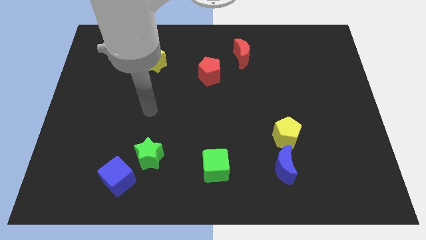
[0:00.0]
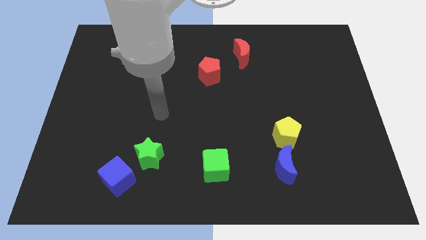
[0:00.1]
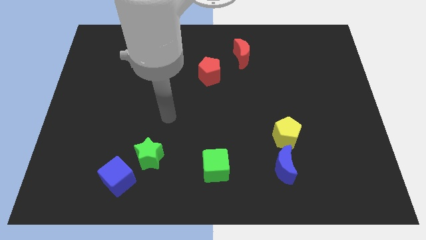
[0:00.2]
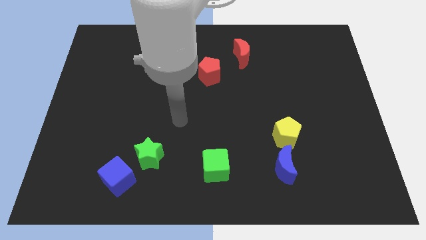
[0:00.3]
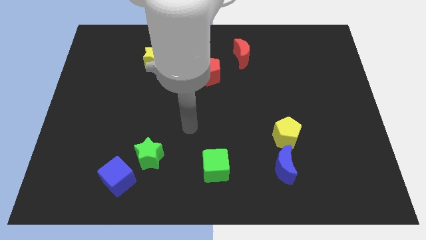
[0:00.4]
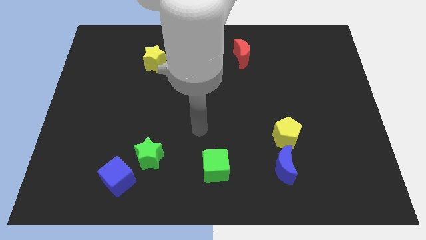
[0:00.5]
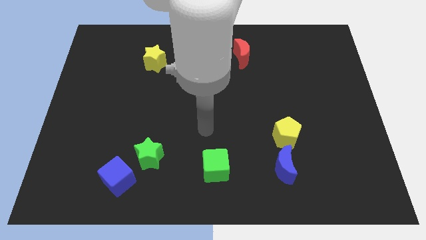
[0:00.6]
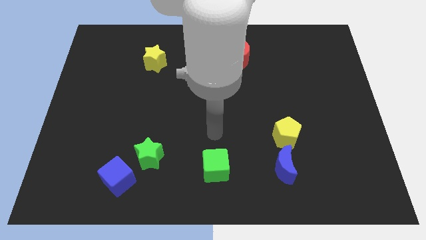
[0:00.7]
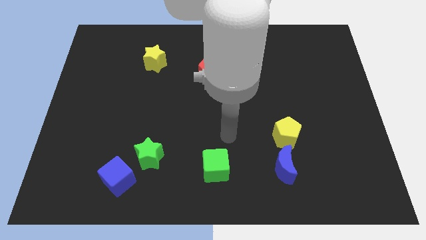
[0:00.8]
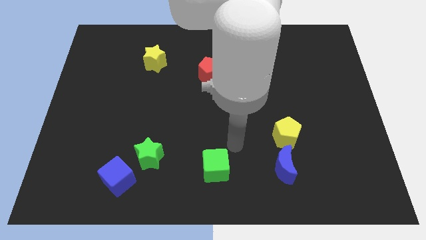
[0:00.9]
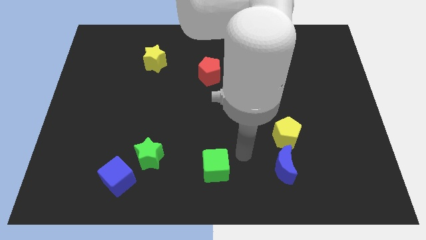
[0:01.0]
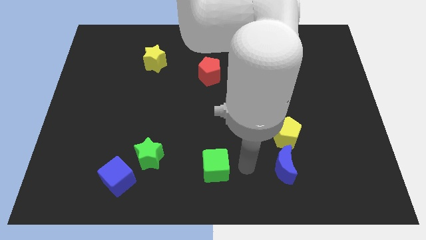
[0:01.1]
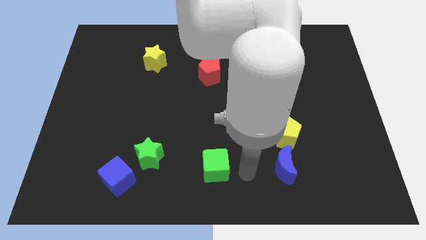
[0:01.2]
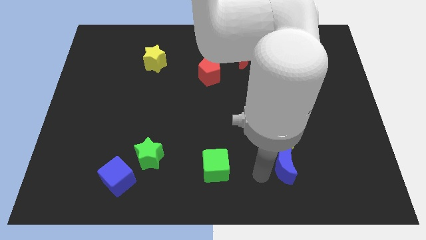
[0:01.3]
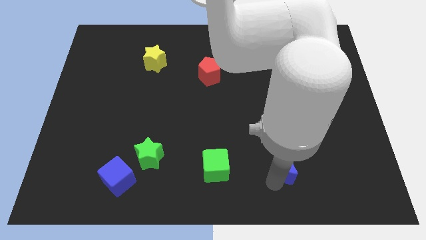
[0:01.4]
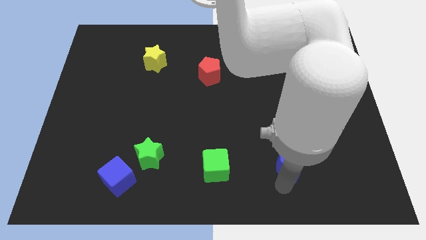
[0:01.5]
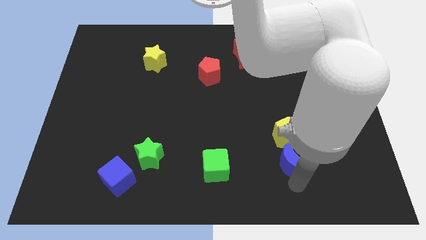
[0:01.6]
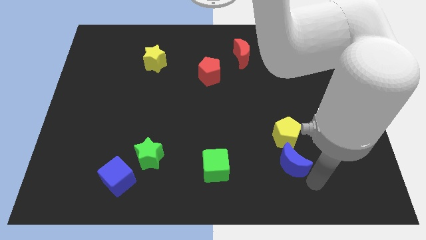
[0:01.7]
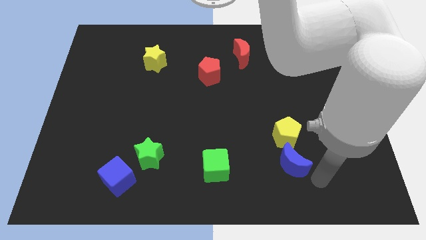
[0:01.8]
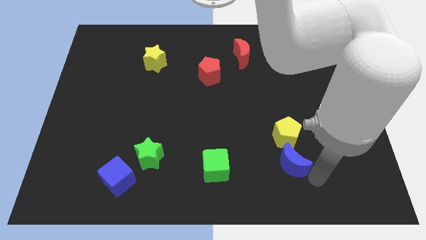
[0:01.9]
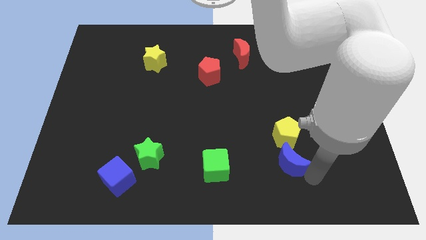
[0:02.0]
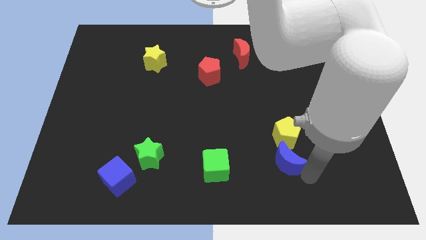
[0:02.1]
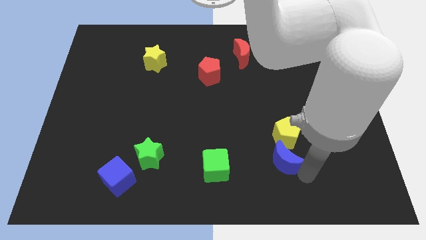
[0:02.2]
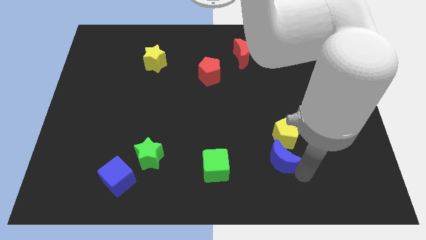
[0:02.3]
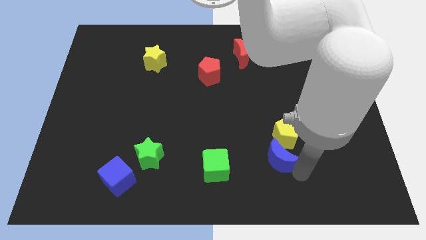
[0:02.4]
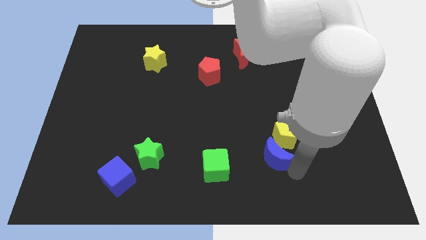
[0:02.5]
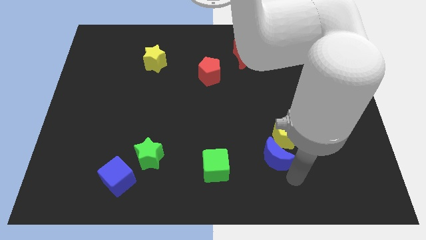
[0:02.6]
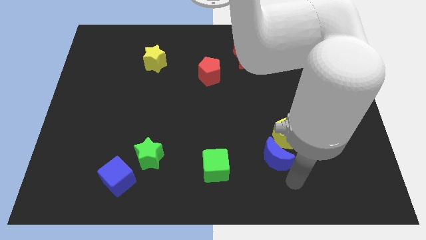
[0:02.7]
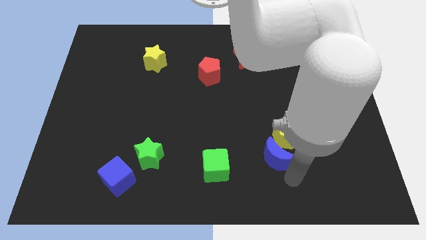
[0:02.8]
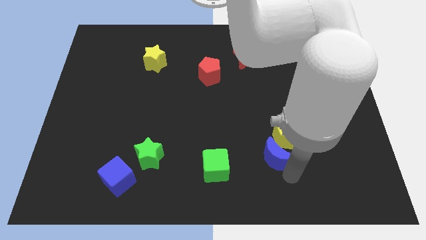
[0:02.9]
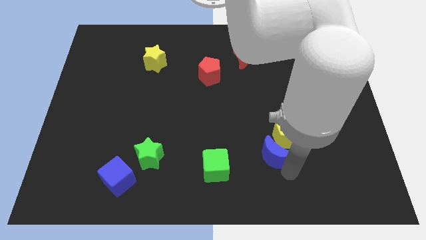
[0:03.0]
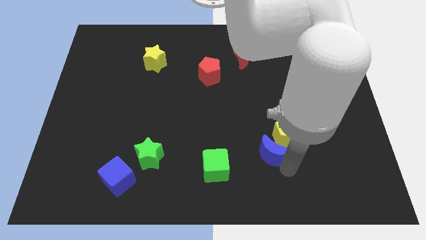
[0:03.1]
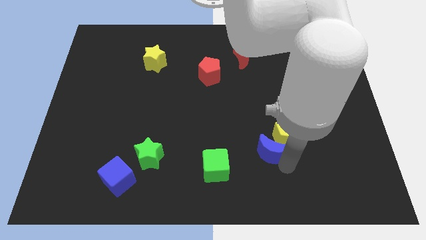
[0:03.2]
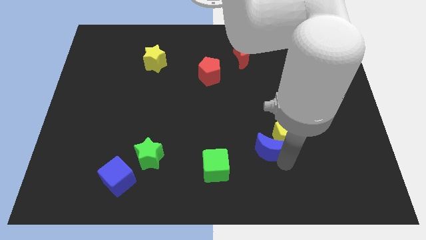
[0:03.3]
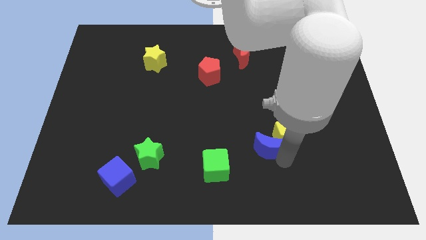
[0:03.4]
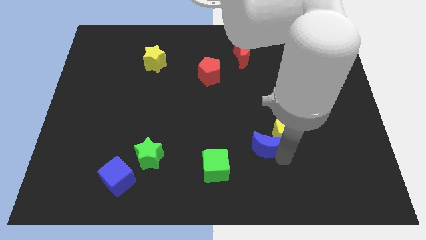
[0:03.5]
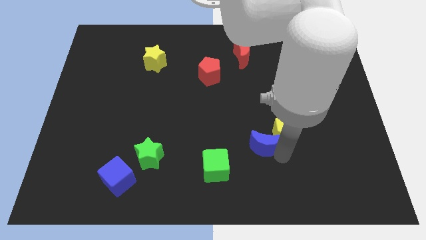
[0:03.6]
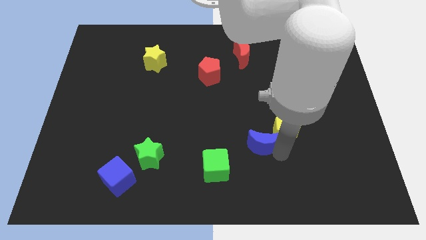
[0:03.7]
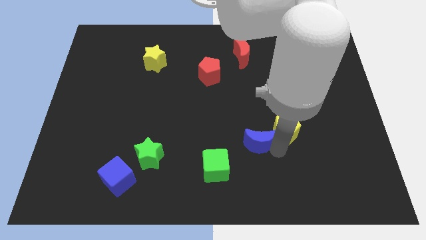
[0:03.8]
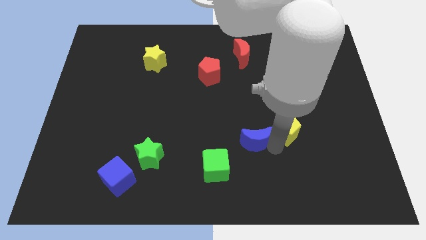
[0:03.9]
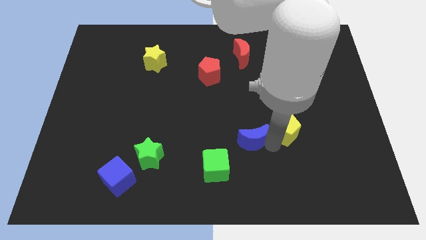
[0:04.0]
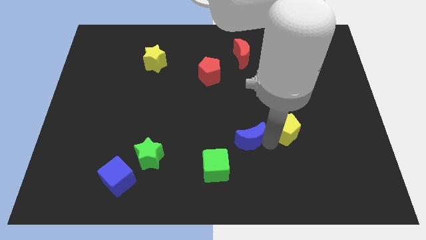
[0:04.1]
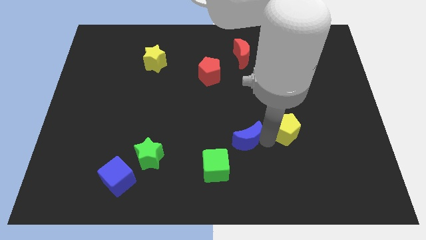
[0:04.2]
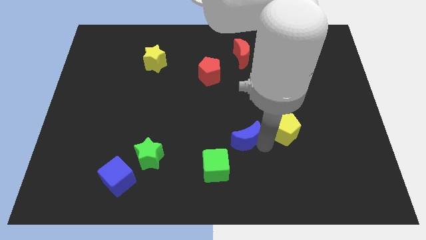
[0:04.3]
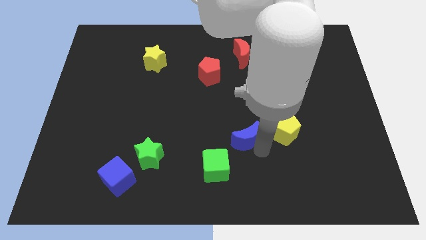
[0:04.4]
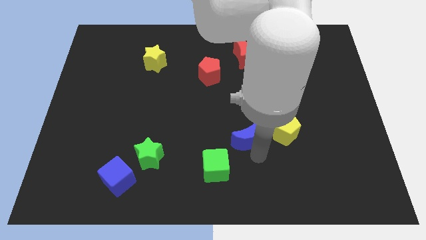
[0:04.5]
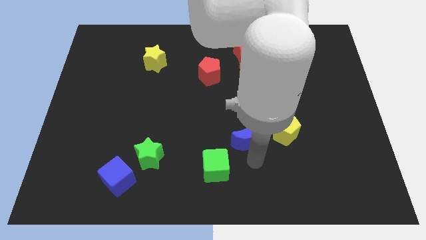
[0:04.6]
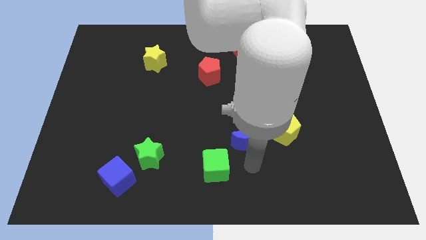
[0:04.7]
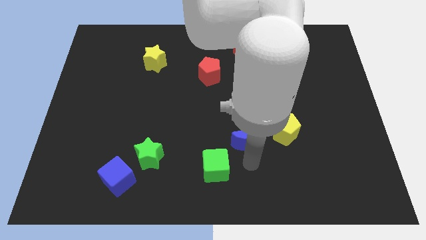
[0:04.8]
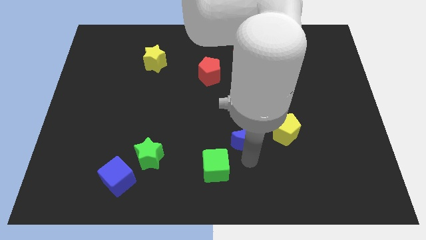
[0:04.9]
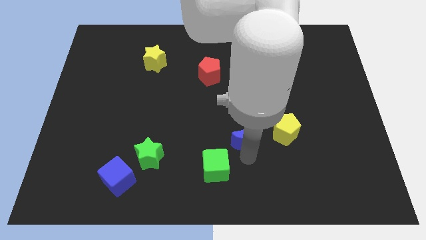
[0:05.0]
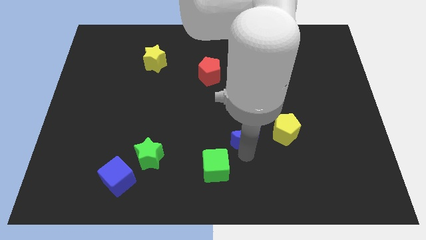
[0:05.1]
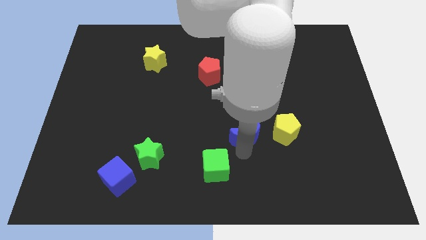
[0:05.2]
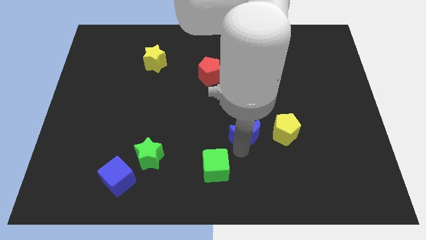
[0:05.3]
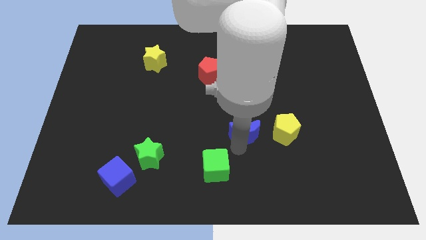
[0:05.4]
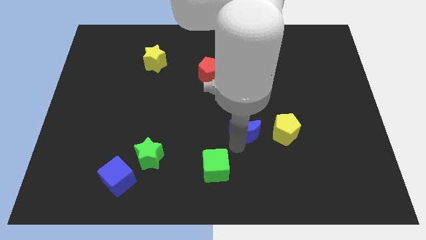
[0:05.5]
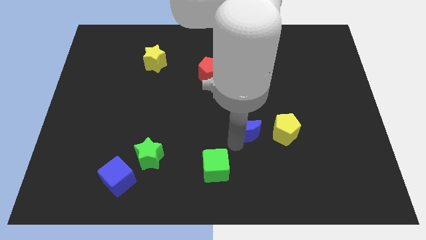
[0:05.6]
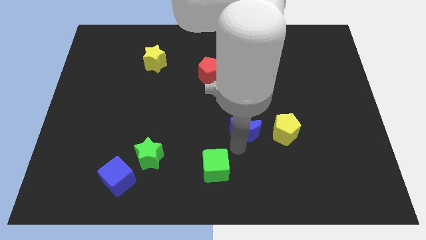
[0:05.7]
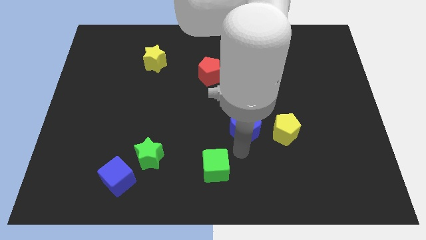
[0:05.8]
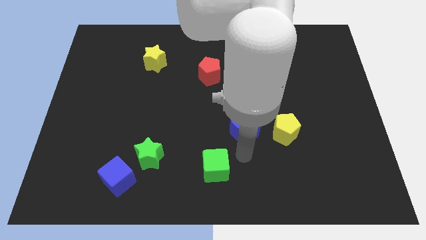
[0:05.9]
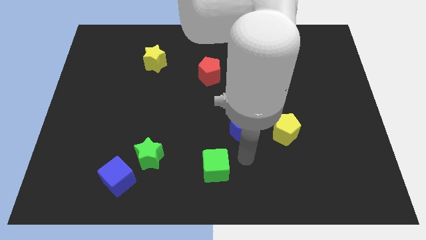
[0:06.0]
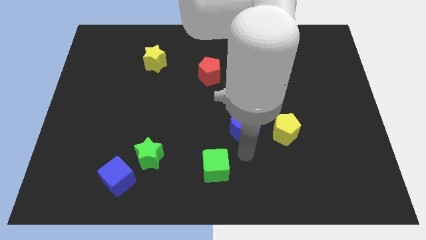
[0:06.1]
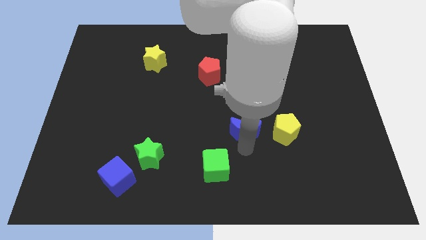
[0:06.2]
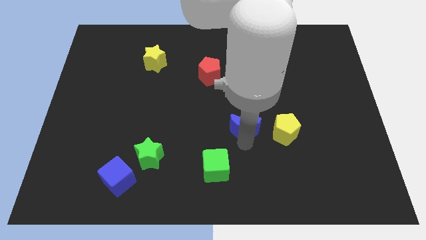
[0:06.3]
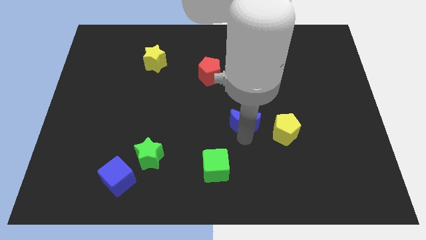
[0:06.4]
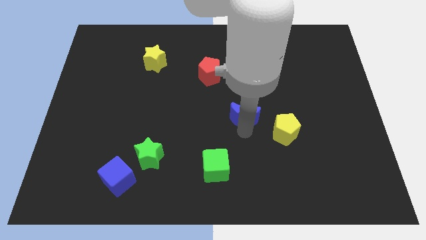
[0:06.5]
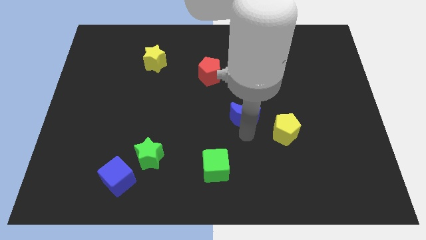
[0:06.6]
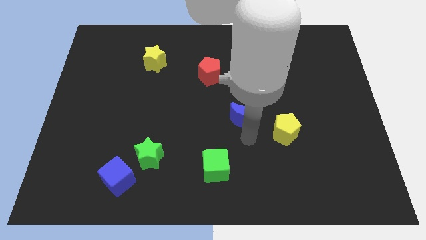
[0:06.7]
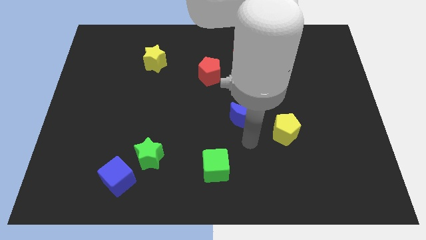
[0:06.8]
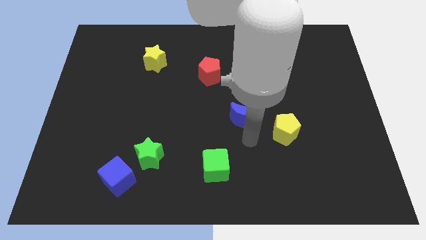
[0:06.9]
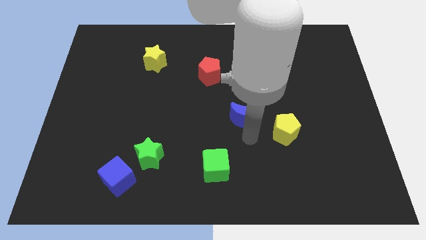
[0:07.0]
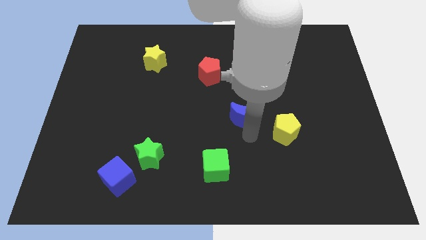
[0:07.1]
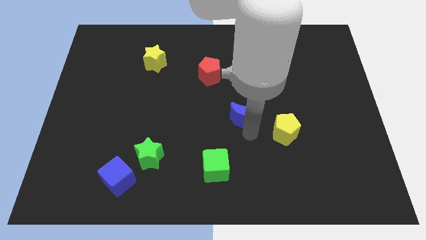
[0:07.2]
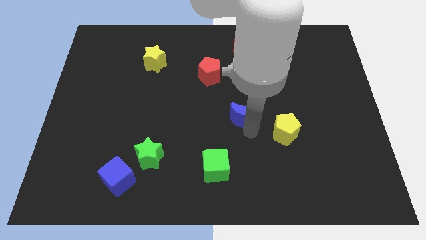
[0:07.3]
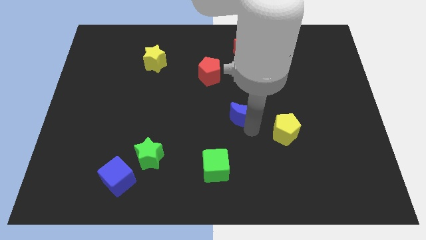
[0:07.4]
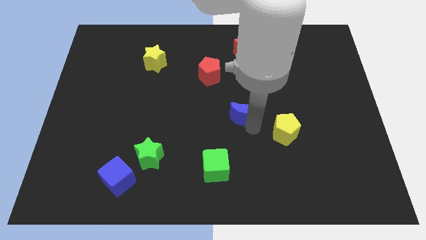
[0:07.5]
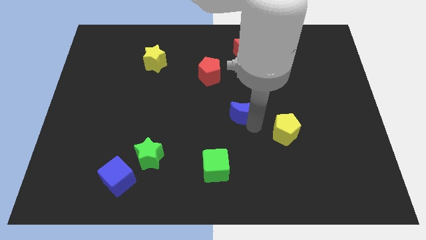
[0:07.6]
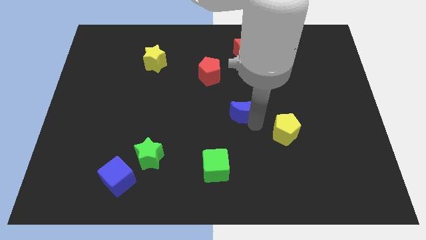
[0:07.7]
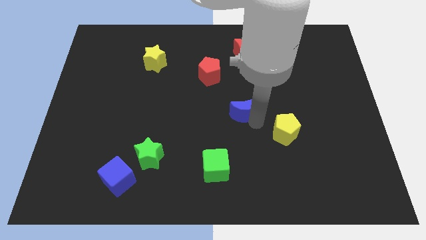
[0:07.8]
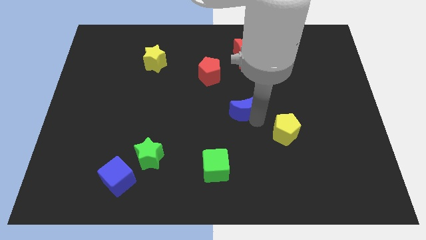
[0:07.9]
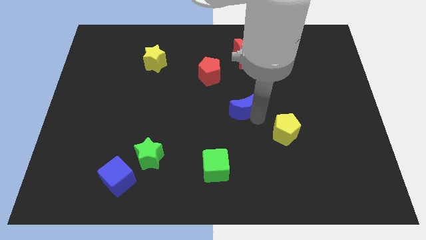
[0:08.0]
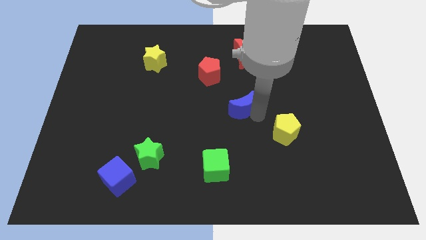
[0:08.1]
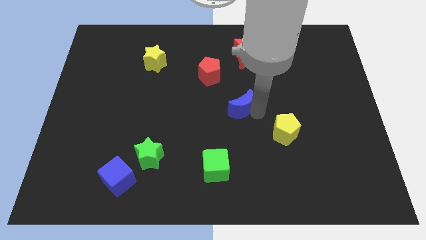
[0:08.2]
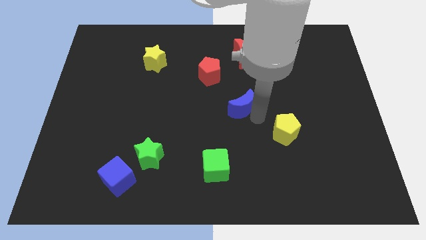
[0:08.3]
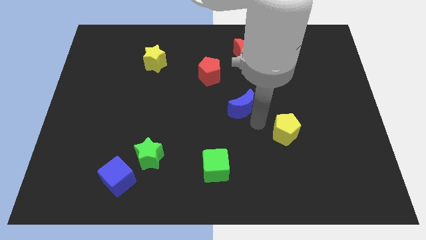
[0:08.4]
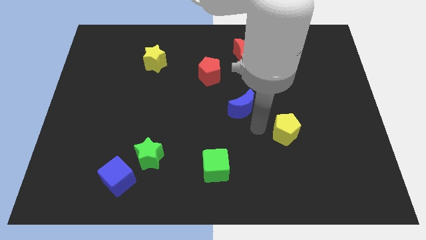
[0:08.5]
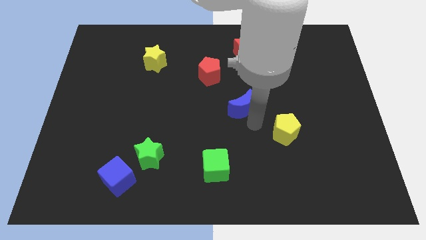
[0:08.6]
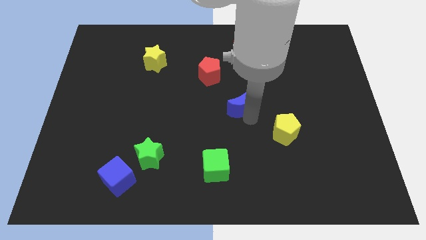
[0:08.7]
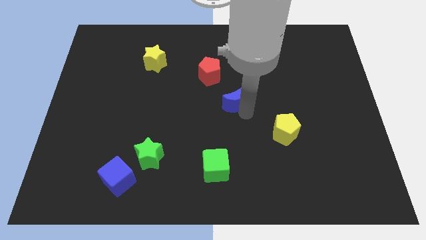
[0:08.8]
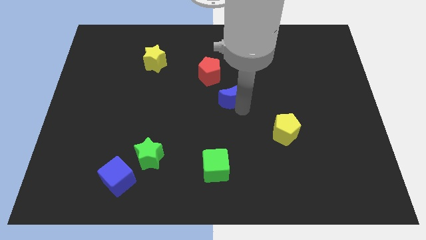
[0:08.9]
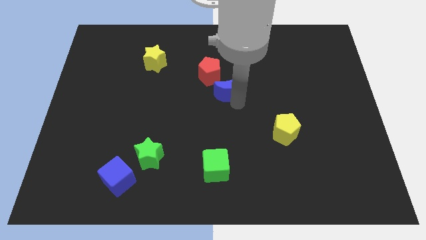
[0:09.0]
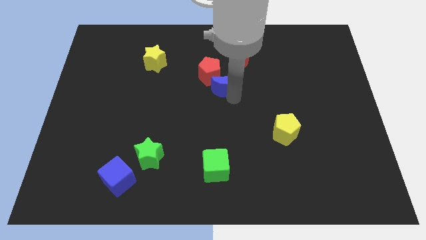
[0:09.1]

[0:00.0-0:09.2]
push the blue moon to the red pentagon
